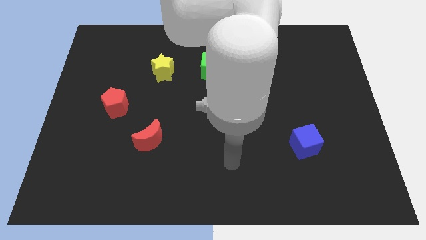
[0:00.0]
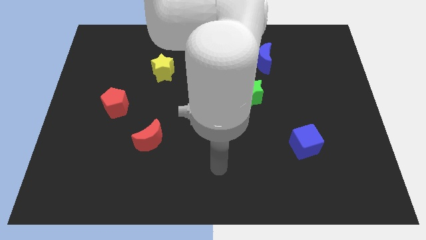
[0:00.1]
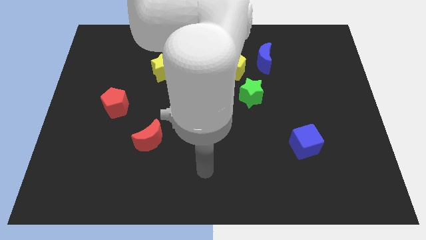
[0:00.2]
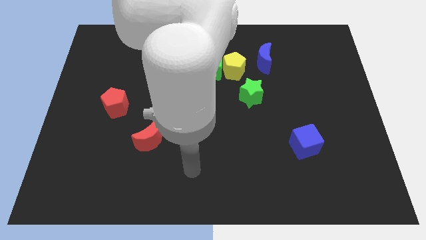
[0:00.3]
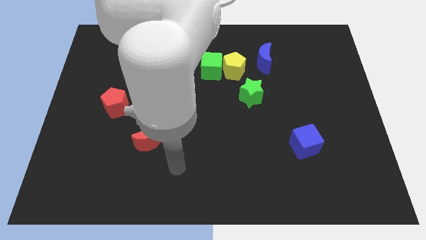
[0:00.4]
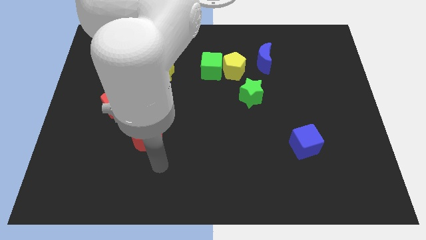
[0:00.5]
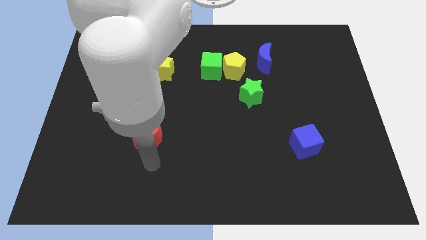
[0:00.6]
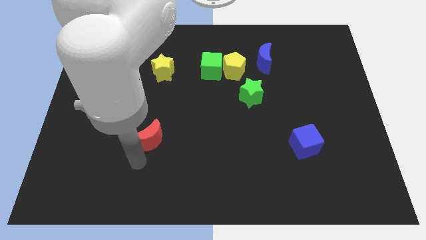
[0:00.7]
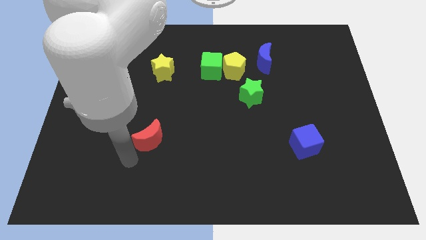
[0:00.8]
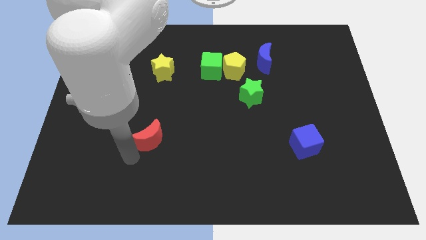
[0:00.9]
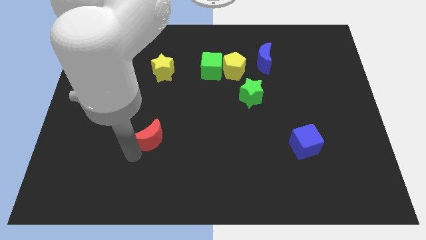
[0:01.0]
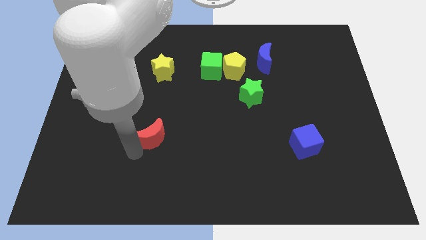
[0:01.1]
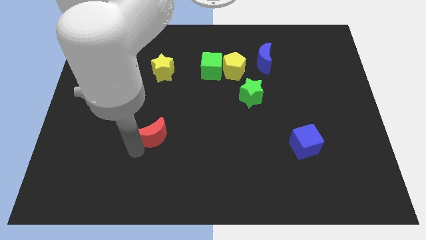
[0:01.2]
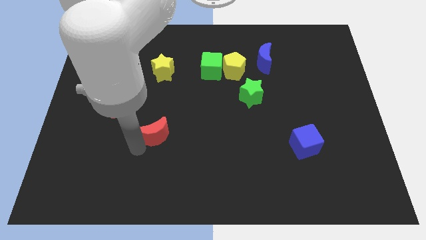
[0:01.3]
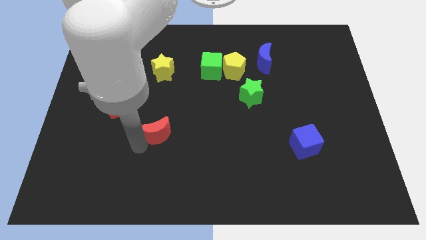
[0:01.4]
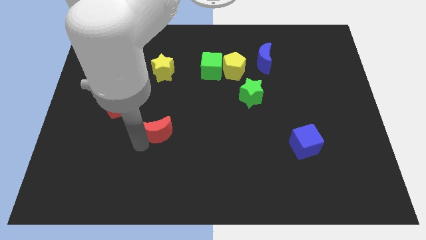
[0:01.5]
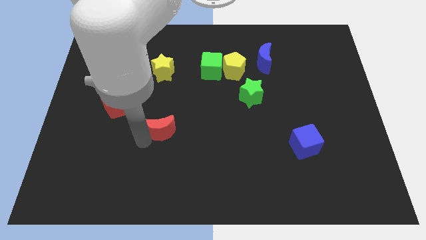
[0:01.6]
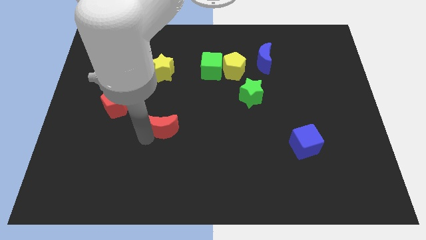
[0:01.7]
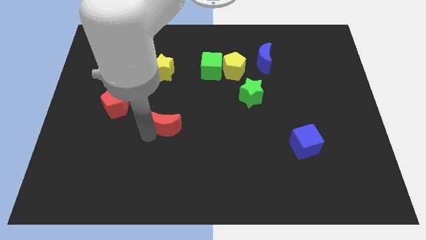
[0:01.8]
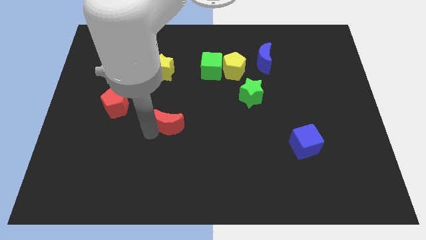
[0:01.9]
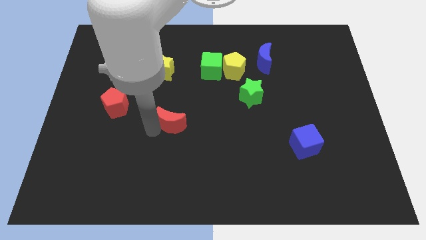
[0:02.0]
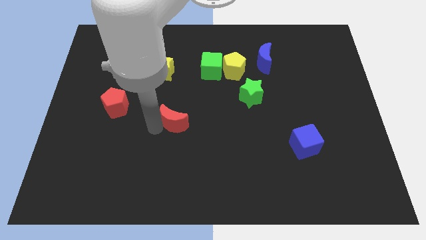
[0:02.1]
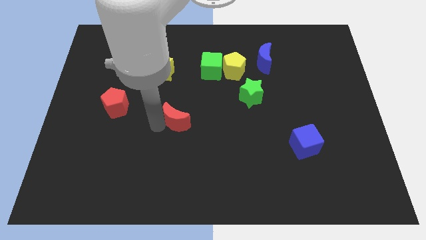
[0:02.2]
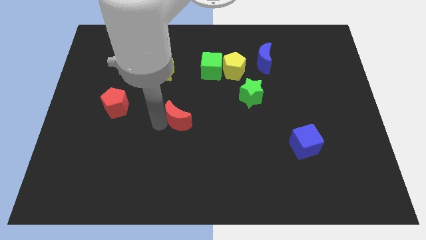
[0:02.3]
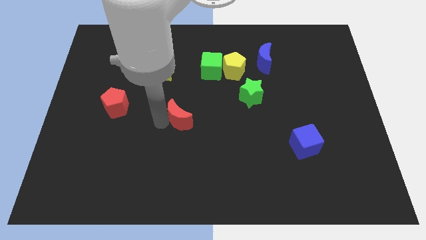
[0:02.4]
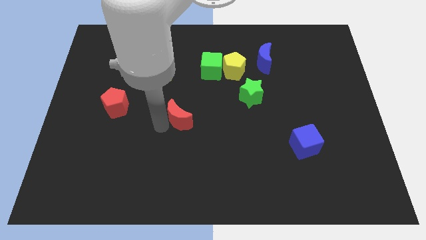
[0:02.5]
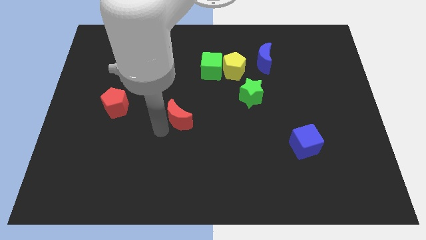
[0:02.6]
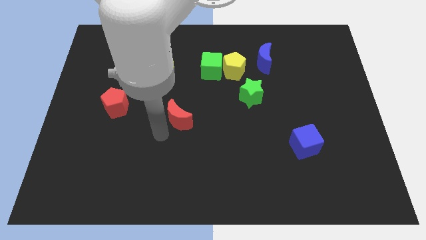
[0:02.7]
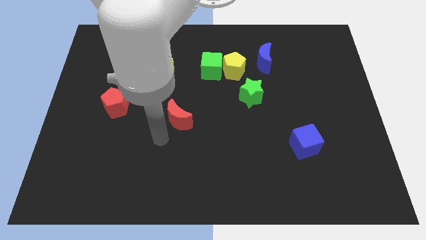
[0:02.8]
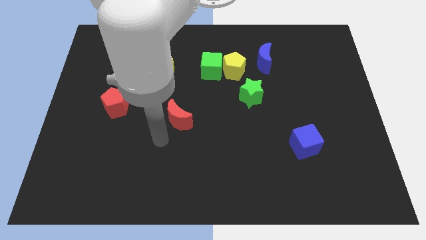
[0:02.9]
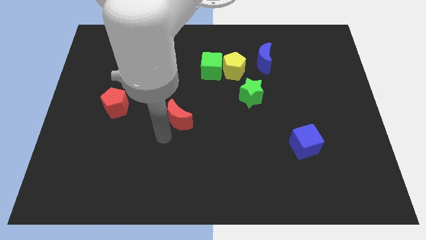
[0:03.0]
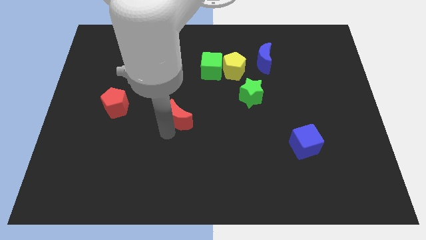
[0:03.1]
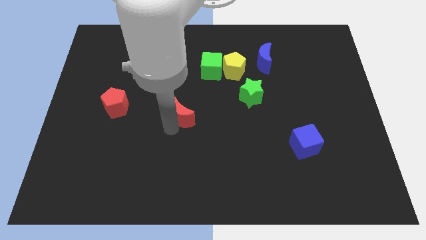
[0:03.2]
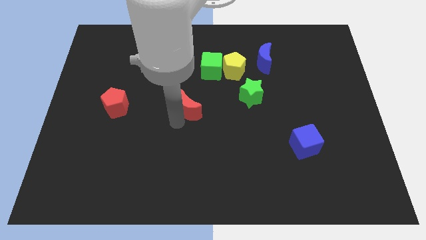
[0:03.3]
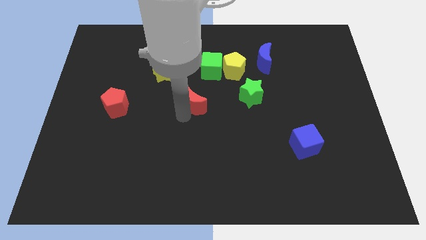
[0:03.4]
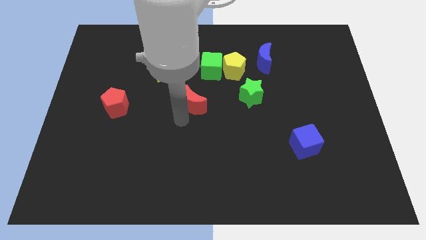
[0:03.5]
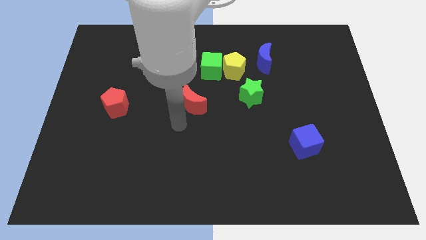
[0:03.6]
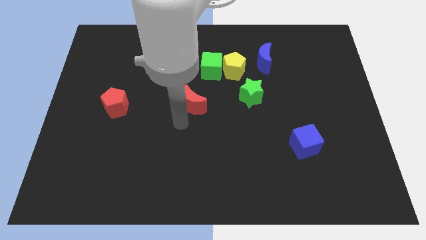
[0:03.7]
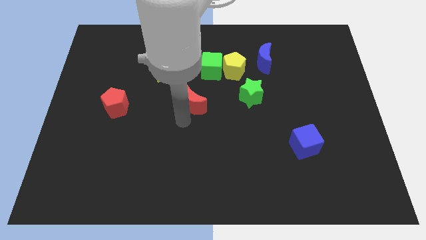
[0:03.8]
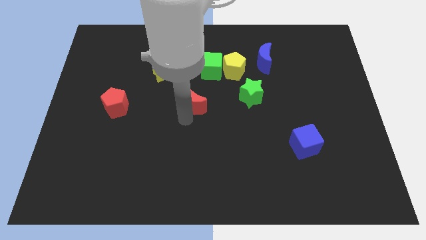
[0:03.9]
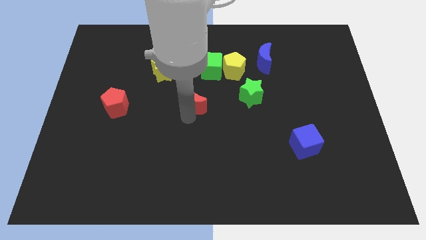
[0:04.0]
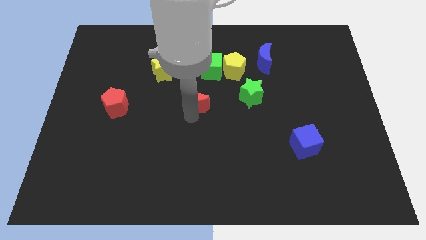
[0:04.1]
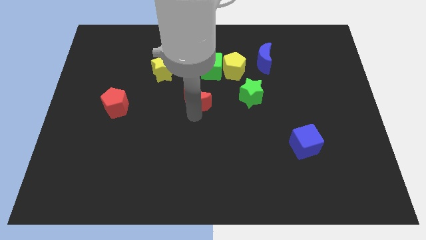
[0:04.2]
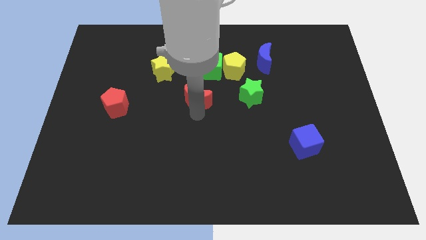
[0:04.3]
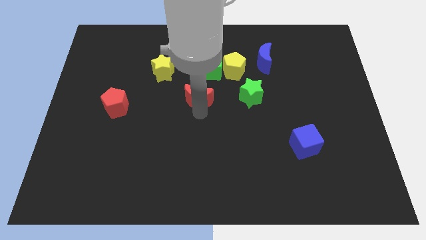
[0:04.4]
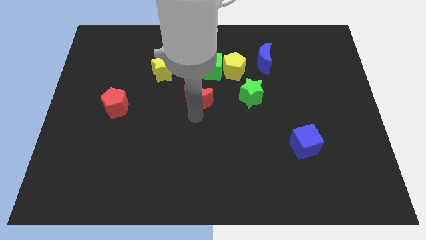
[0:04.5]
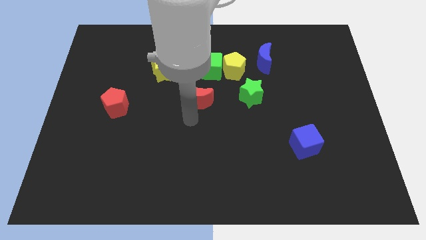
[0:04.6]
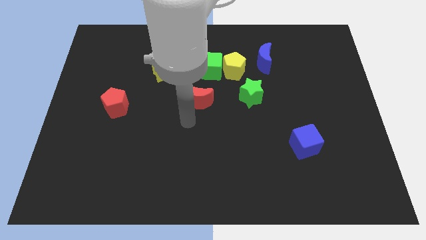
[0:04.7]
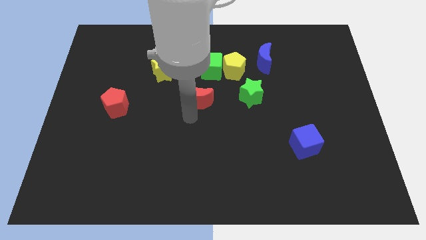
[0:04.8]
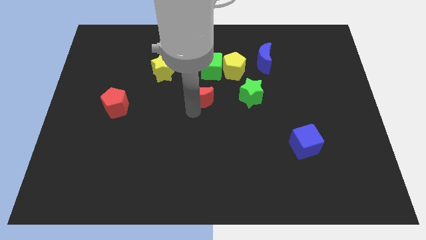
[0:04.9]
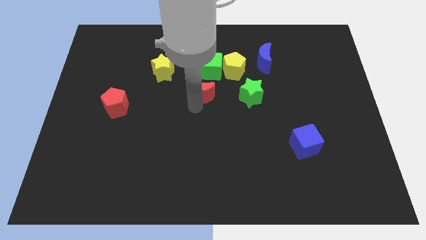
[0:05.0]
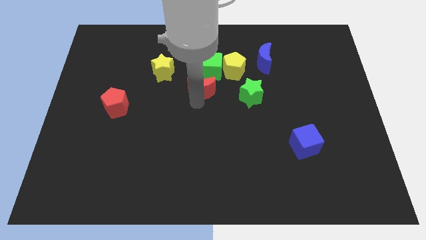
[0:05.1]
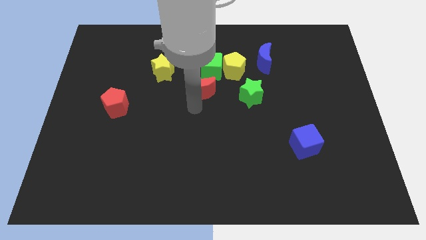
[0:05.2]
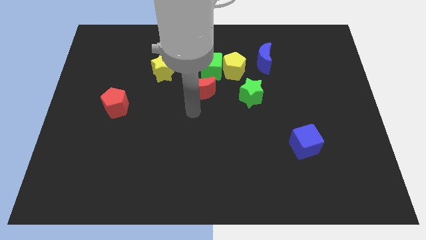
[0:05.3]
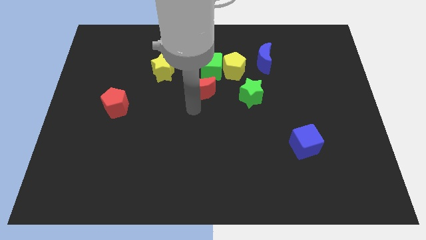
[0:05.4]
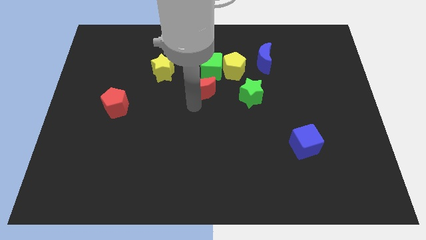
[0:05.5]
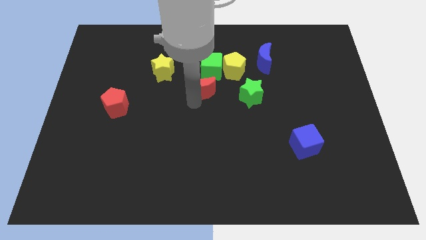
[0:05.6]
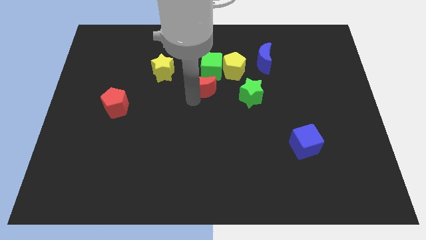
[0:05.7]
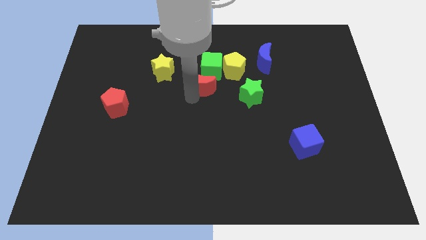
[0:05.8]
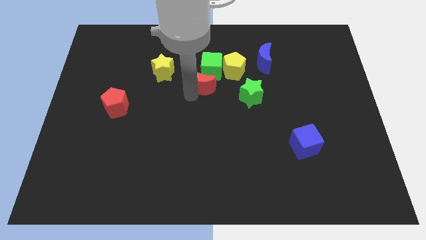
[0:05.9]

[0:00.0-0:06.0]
put the red moon close to the green cube

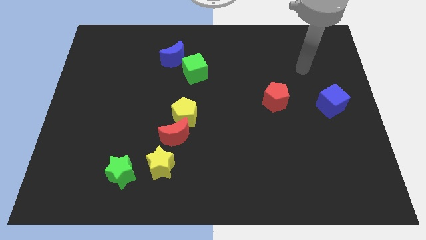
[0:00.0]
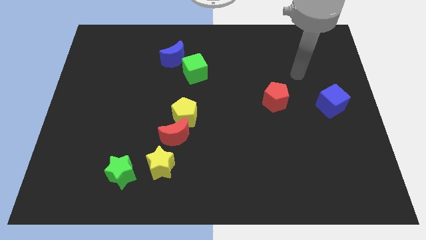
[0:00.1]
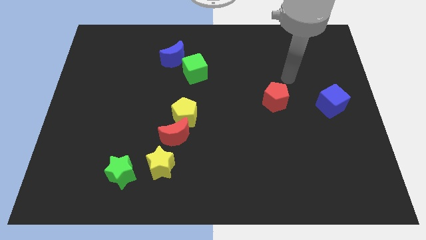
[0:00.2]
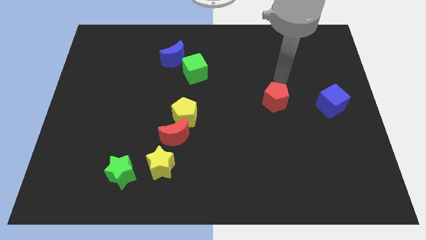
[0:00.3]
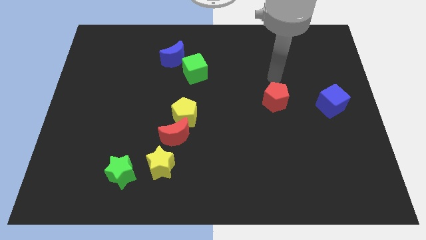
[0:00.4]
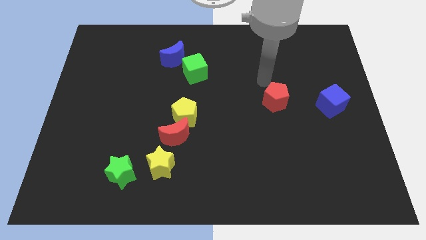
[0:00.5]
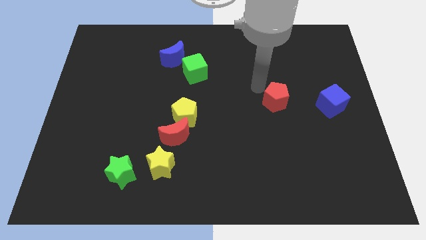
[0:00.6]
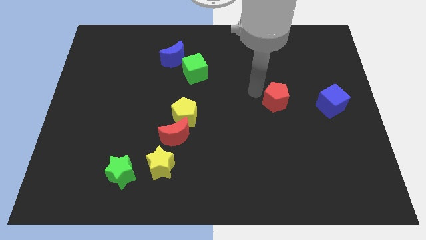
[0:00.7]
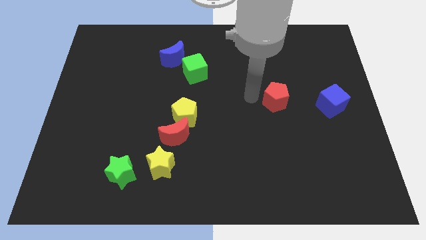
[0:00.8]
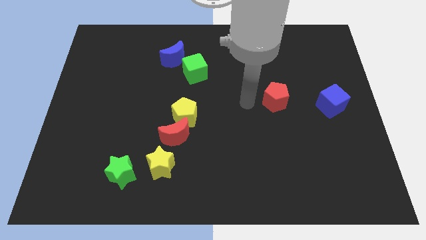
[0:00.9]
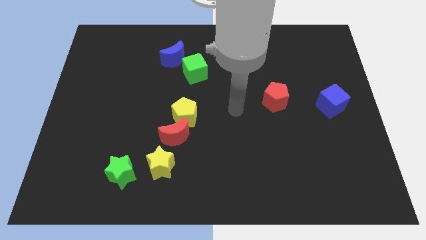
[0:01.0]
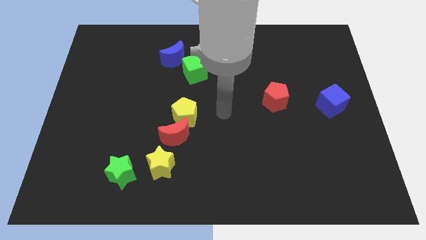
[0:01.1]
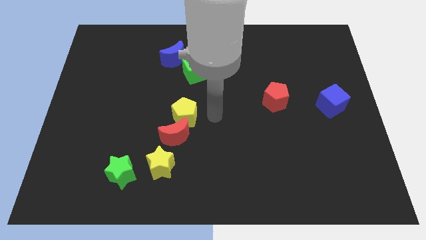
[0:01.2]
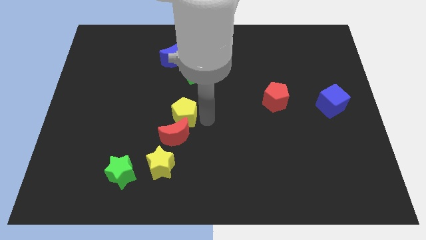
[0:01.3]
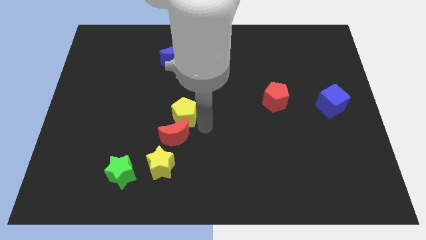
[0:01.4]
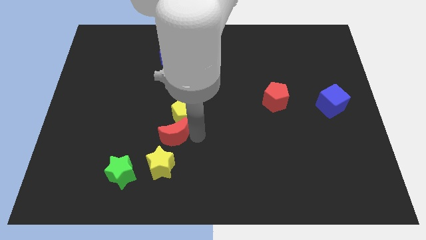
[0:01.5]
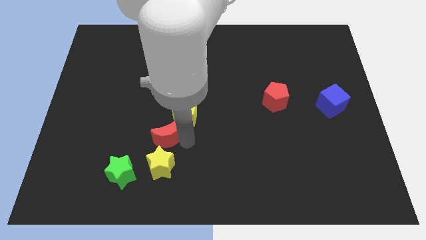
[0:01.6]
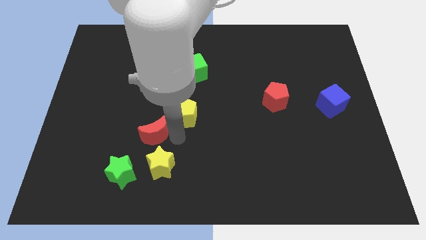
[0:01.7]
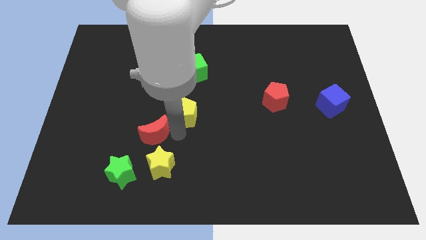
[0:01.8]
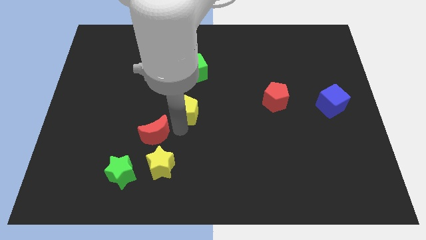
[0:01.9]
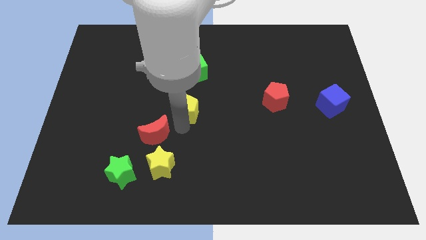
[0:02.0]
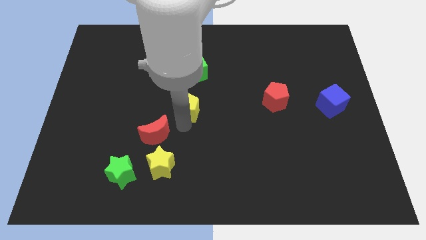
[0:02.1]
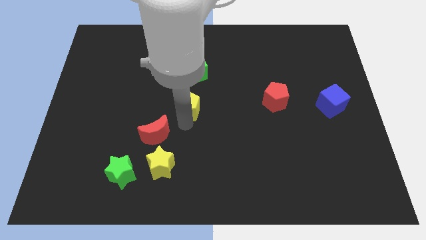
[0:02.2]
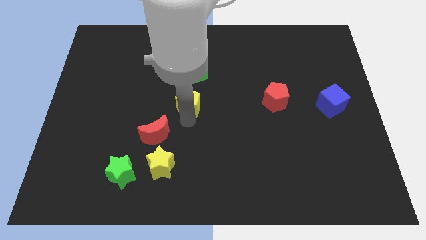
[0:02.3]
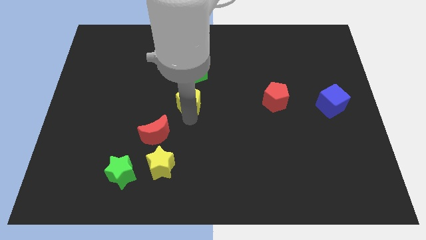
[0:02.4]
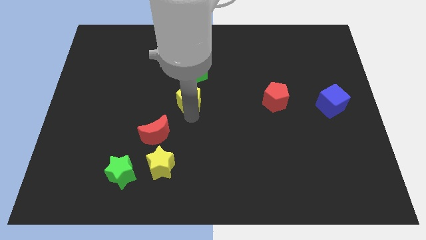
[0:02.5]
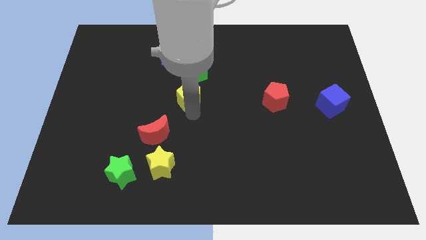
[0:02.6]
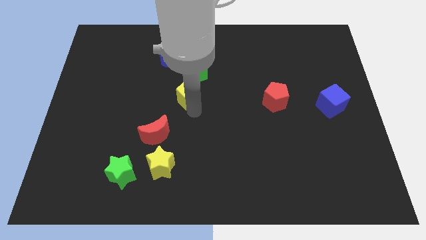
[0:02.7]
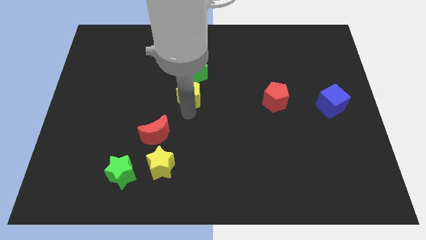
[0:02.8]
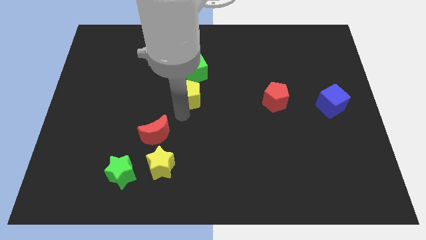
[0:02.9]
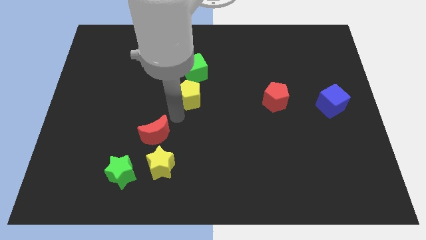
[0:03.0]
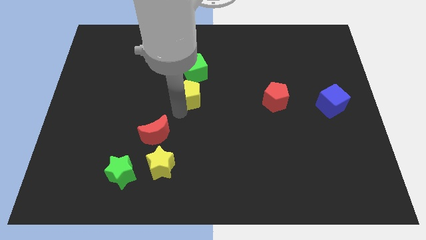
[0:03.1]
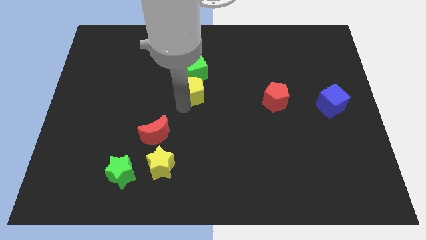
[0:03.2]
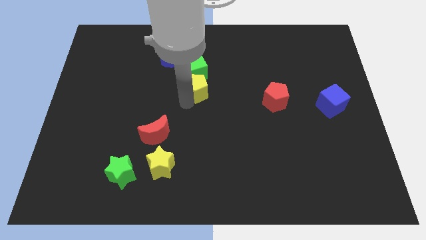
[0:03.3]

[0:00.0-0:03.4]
put the yellow pentagon close to the green cube
